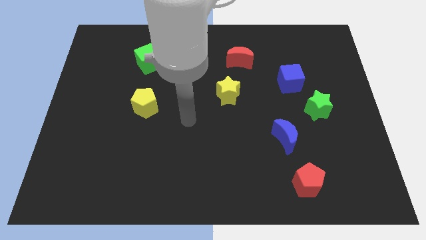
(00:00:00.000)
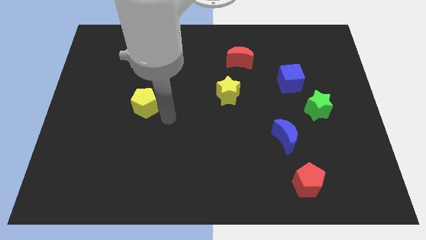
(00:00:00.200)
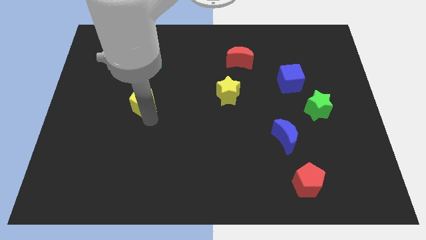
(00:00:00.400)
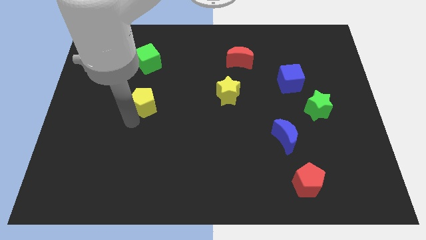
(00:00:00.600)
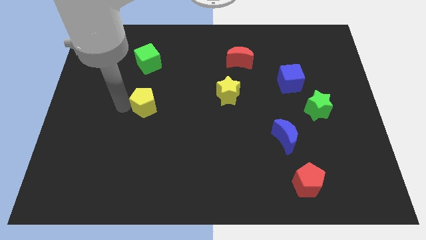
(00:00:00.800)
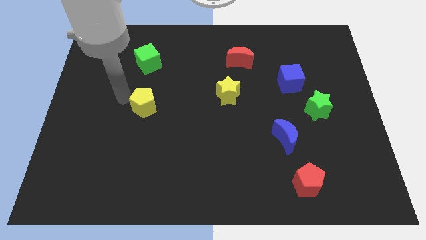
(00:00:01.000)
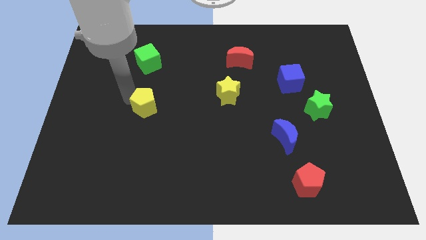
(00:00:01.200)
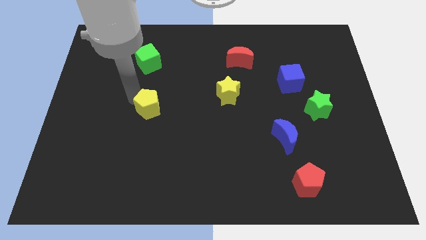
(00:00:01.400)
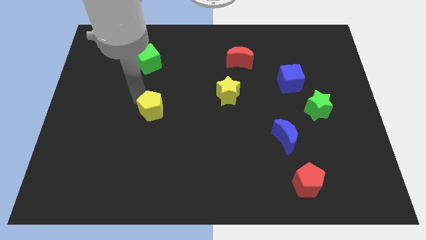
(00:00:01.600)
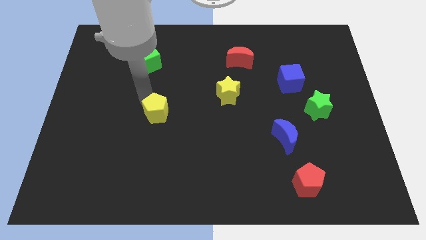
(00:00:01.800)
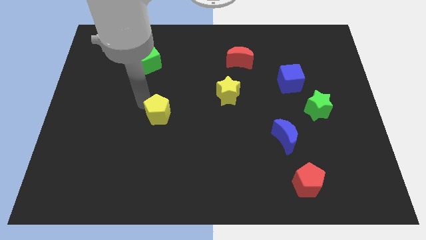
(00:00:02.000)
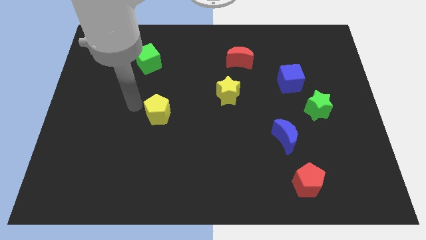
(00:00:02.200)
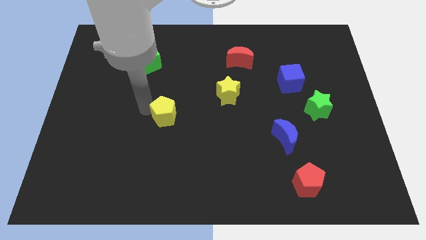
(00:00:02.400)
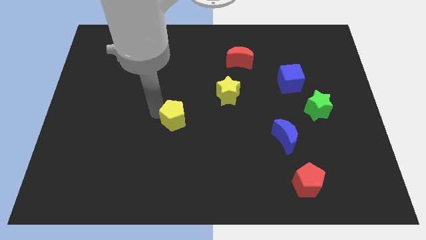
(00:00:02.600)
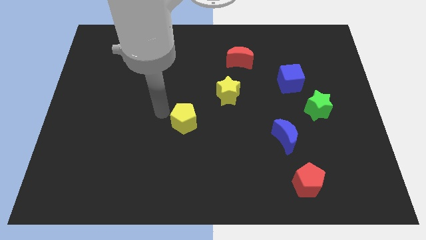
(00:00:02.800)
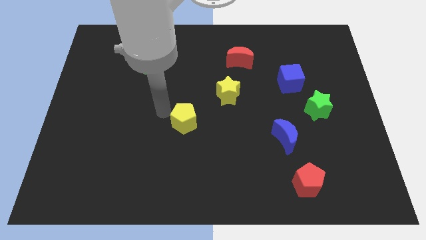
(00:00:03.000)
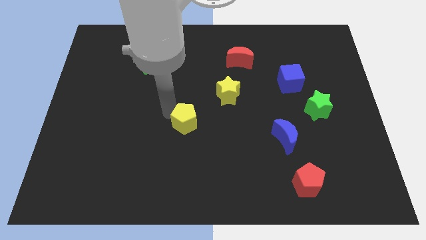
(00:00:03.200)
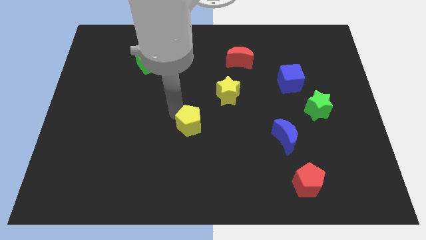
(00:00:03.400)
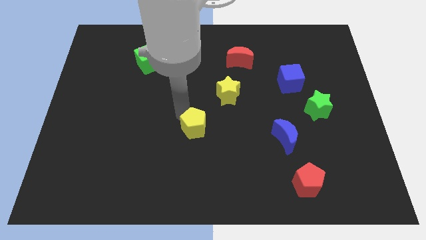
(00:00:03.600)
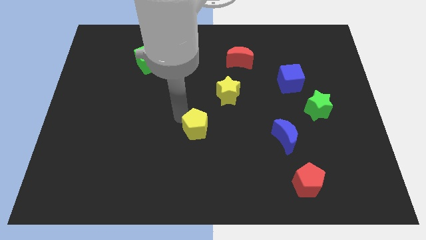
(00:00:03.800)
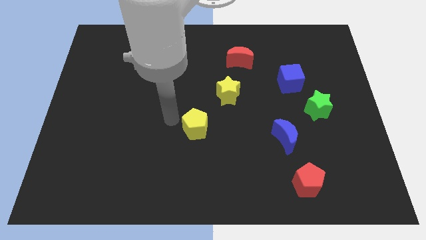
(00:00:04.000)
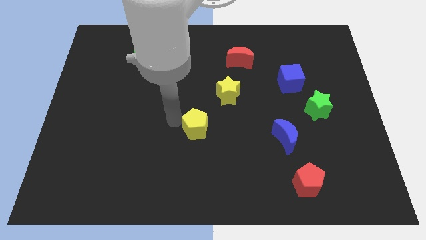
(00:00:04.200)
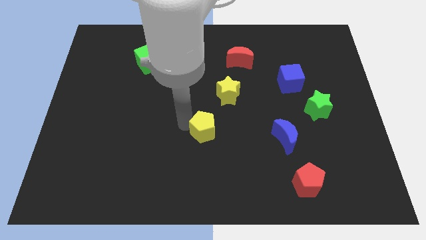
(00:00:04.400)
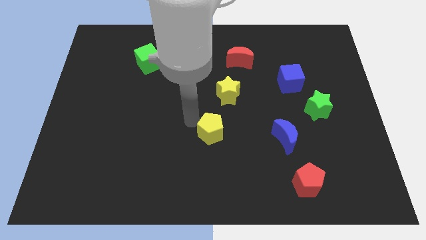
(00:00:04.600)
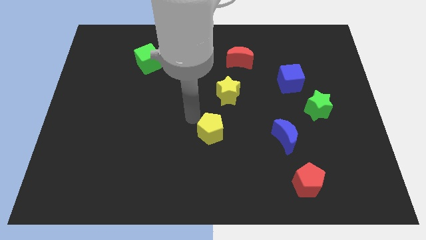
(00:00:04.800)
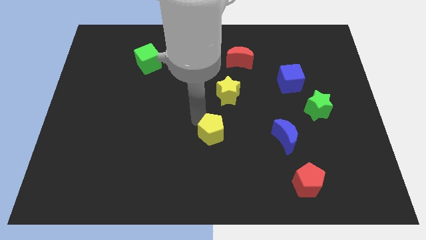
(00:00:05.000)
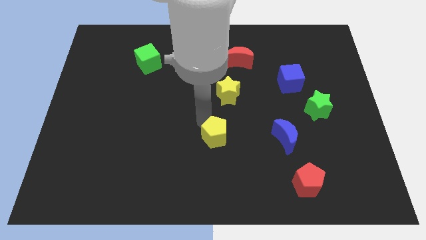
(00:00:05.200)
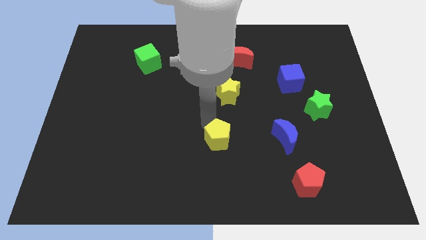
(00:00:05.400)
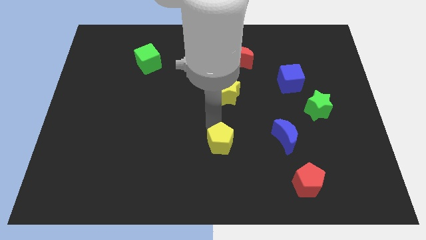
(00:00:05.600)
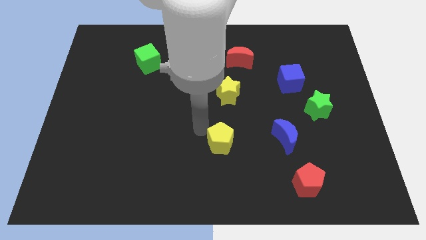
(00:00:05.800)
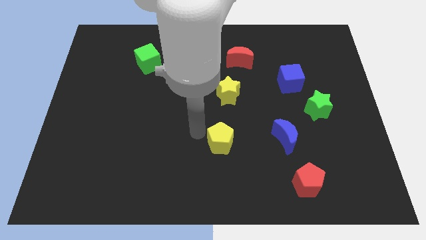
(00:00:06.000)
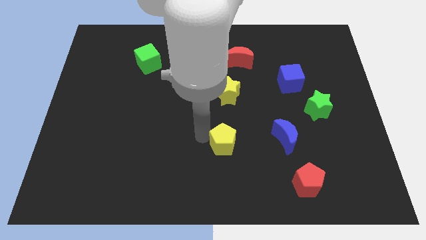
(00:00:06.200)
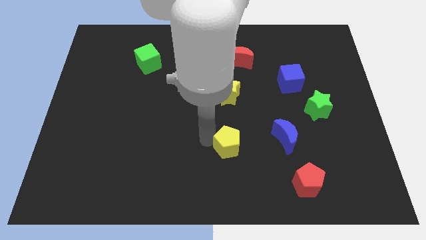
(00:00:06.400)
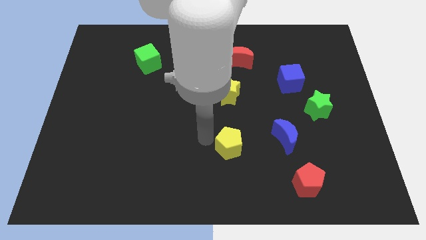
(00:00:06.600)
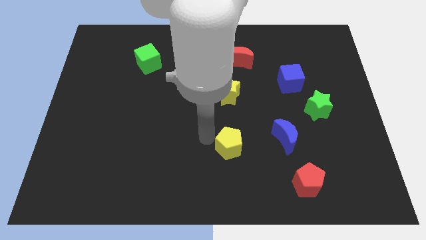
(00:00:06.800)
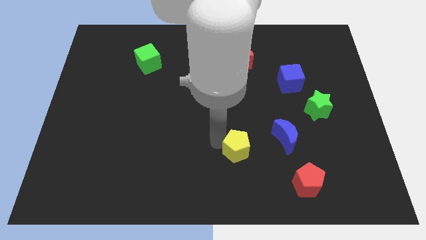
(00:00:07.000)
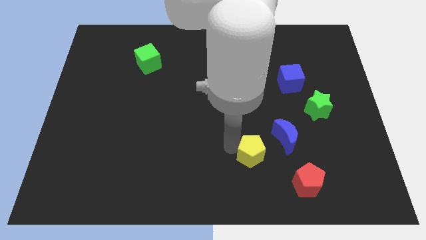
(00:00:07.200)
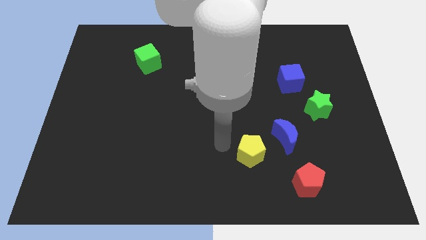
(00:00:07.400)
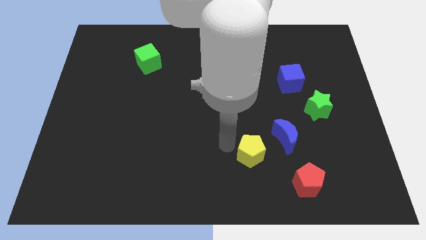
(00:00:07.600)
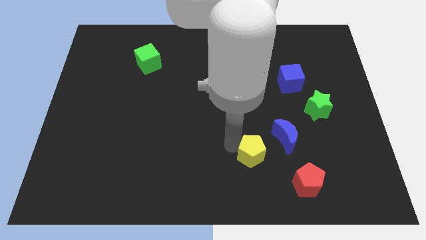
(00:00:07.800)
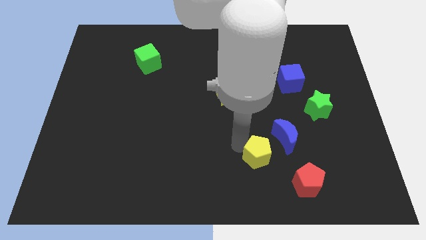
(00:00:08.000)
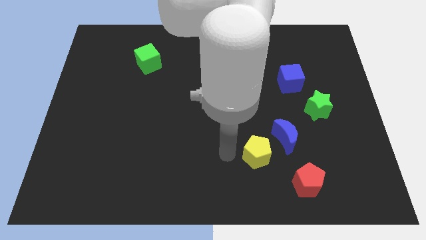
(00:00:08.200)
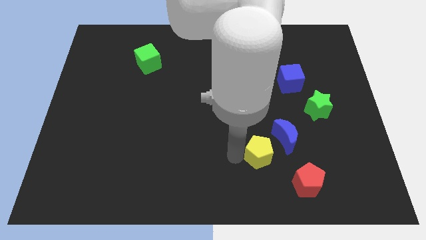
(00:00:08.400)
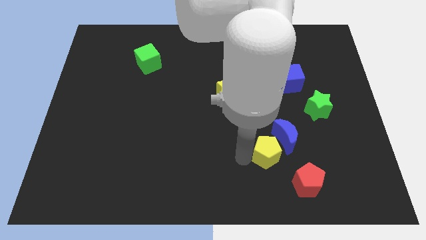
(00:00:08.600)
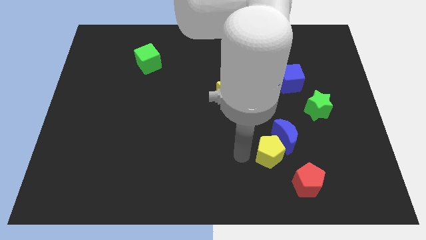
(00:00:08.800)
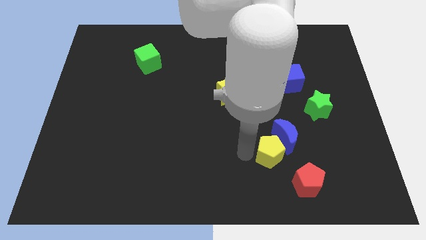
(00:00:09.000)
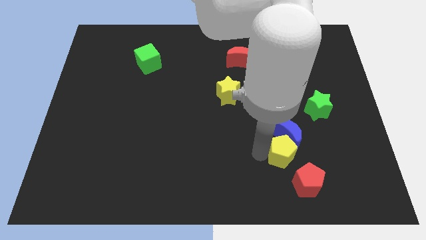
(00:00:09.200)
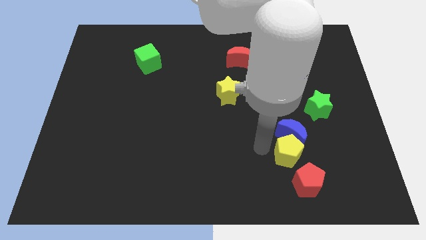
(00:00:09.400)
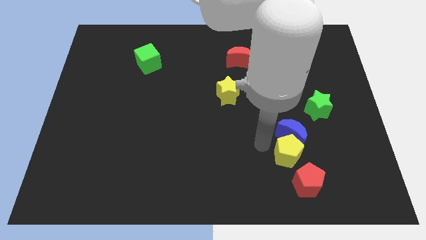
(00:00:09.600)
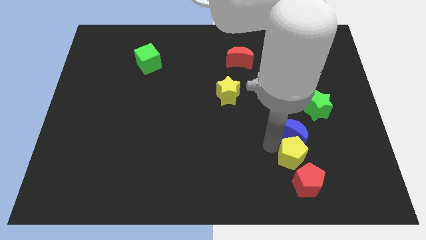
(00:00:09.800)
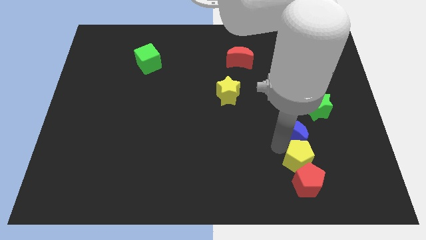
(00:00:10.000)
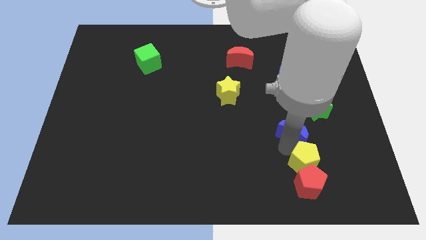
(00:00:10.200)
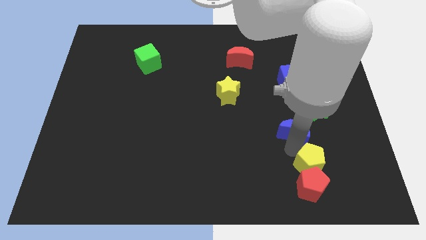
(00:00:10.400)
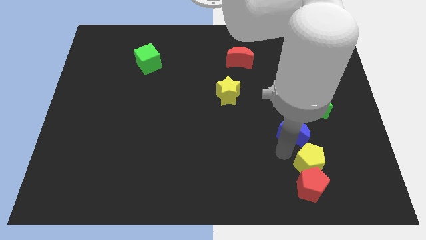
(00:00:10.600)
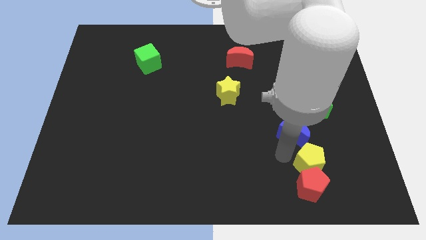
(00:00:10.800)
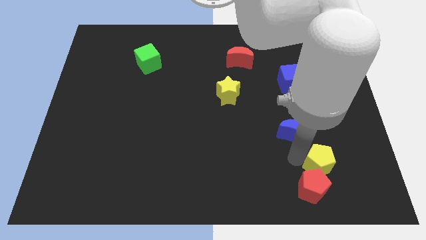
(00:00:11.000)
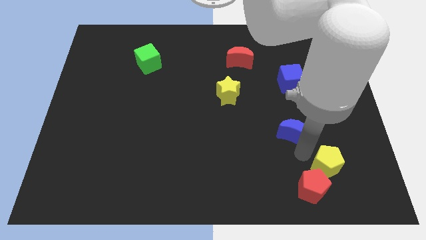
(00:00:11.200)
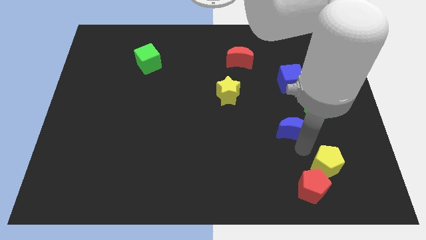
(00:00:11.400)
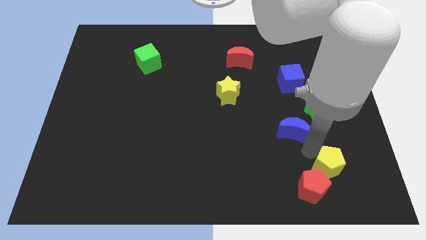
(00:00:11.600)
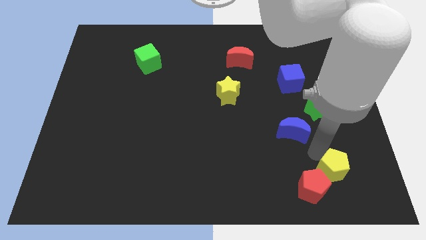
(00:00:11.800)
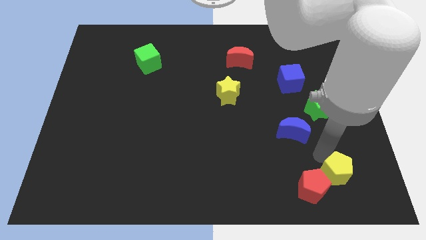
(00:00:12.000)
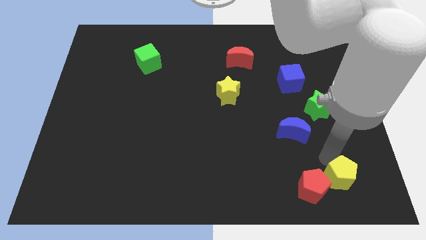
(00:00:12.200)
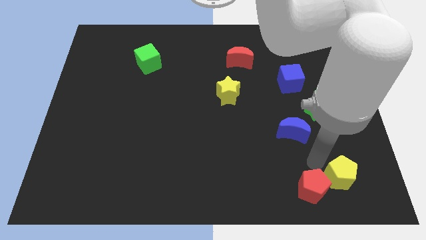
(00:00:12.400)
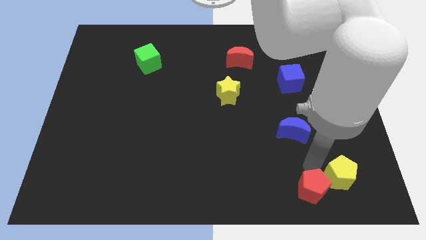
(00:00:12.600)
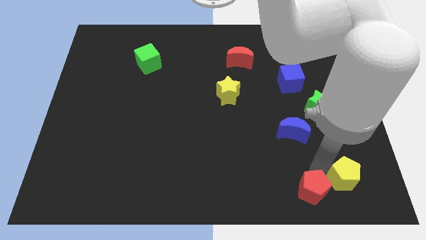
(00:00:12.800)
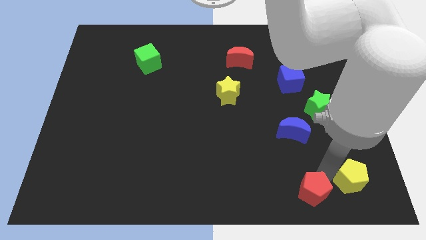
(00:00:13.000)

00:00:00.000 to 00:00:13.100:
slide the yellow pentagon to the bottom right
